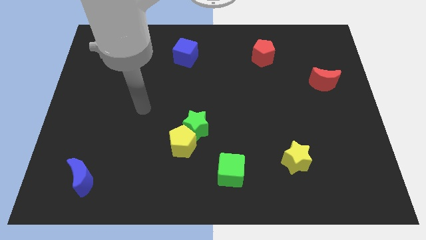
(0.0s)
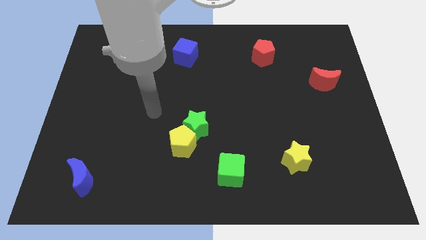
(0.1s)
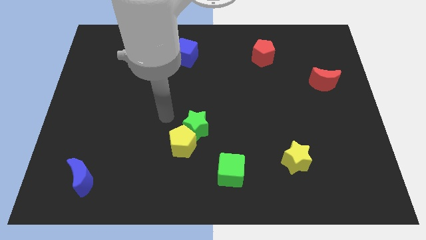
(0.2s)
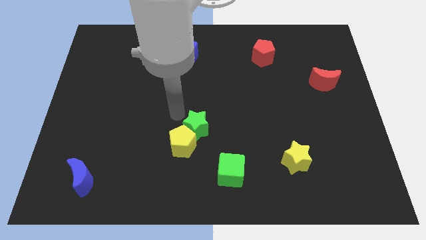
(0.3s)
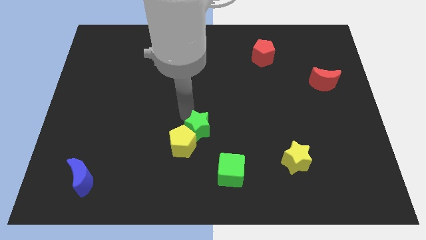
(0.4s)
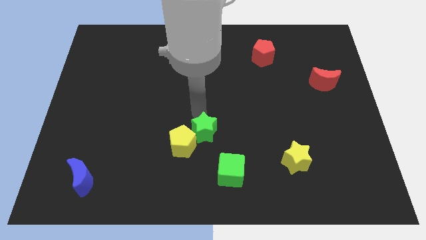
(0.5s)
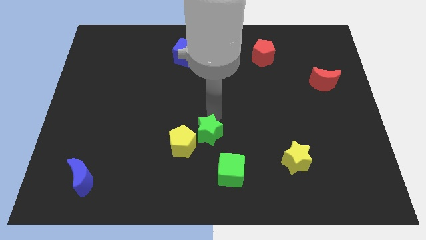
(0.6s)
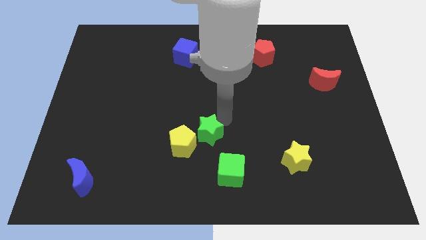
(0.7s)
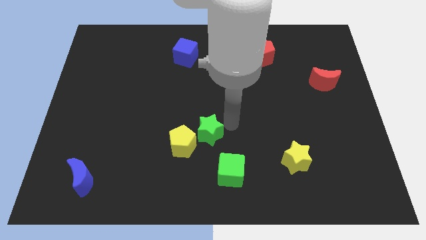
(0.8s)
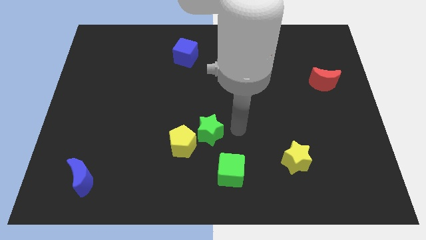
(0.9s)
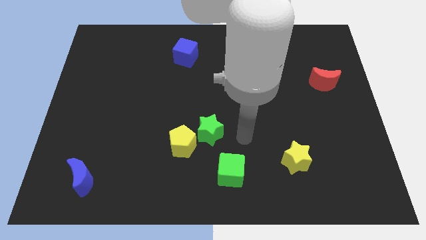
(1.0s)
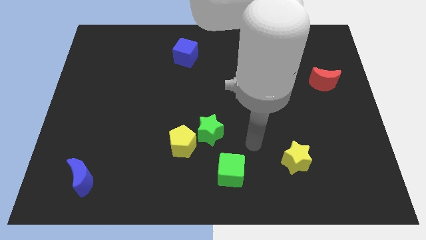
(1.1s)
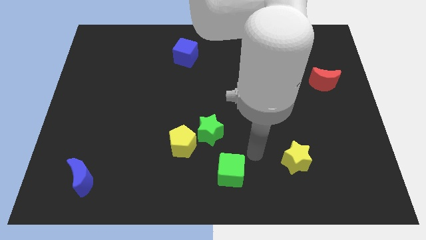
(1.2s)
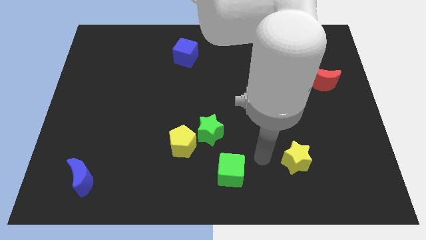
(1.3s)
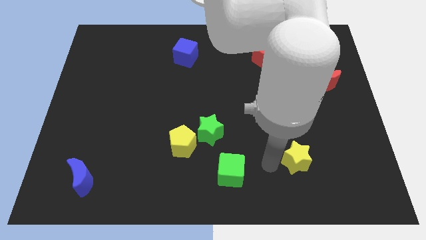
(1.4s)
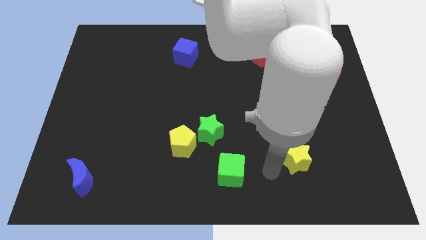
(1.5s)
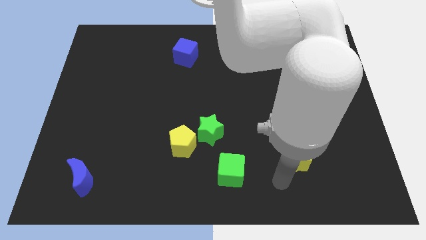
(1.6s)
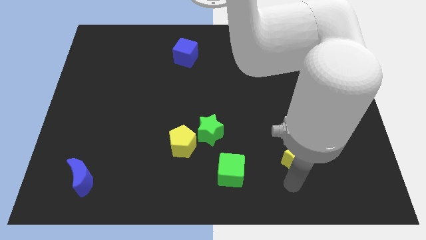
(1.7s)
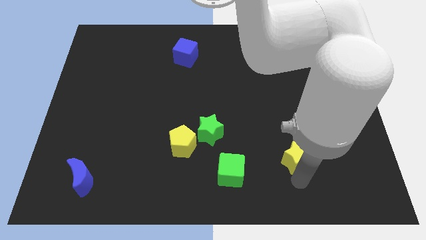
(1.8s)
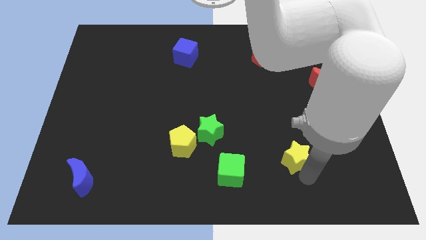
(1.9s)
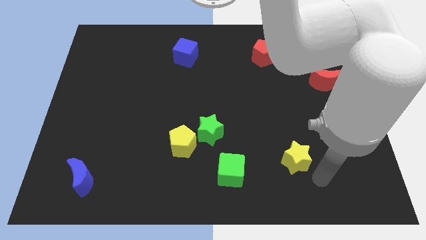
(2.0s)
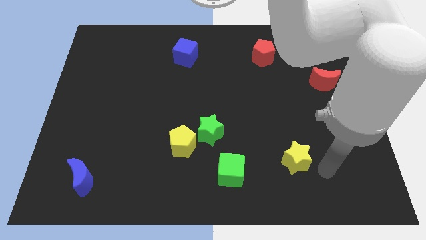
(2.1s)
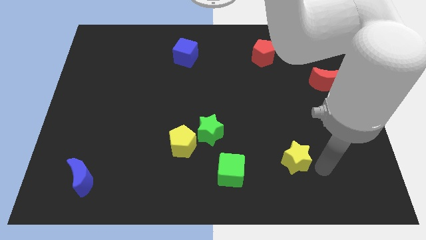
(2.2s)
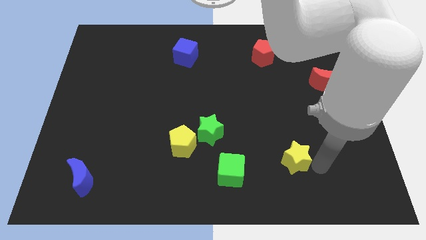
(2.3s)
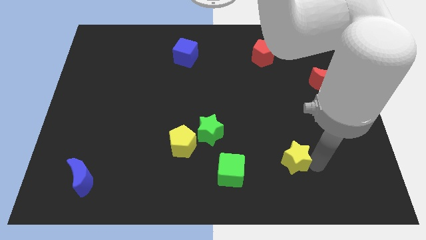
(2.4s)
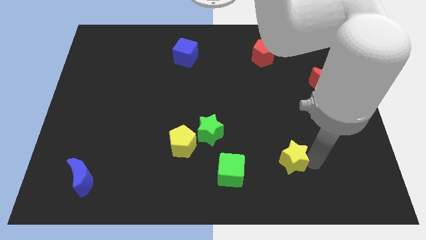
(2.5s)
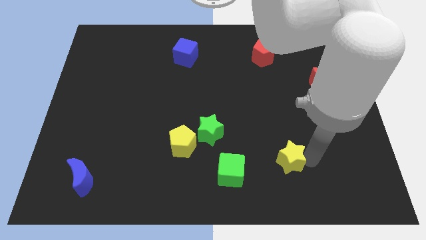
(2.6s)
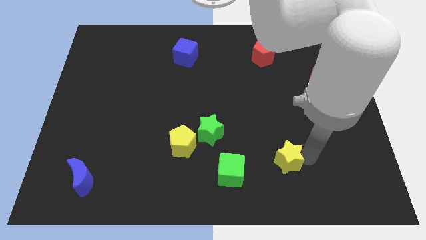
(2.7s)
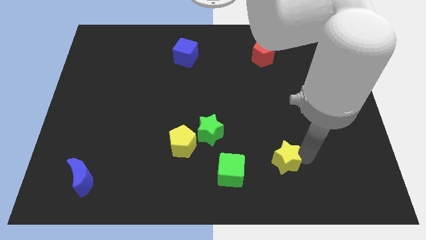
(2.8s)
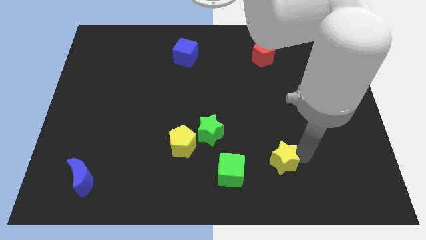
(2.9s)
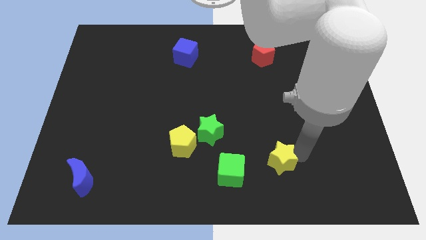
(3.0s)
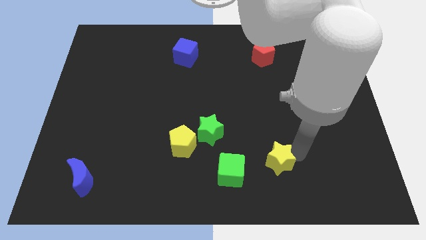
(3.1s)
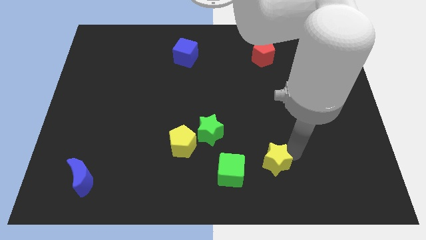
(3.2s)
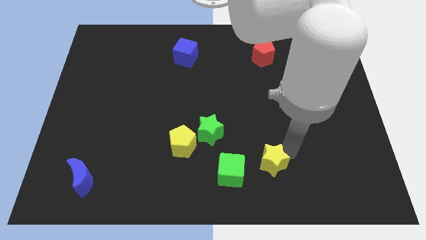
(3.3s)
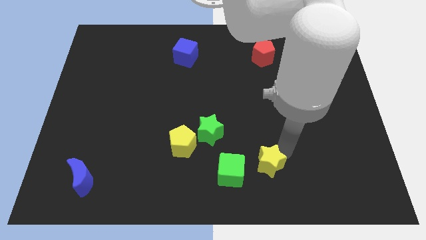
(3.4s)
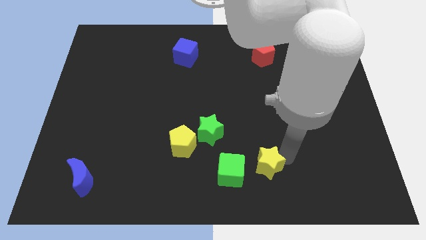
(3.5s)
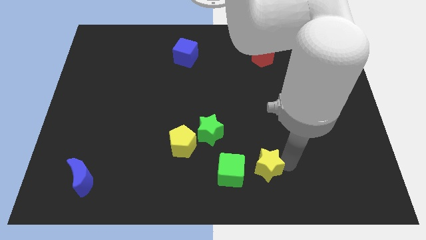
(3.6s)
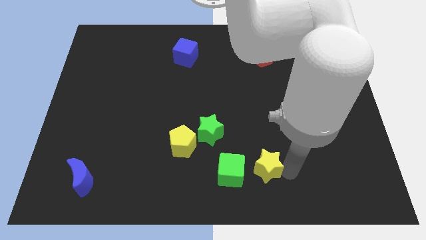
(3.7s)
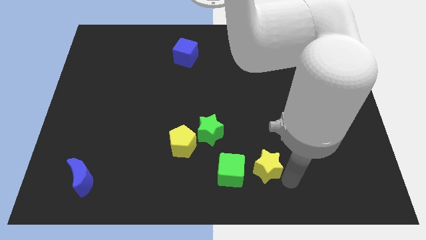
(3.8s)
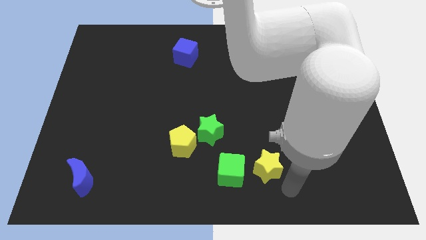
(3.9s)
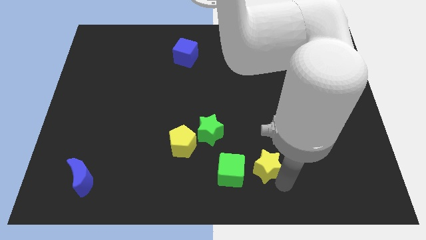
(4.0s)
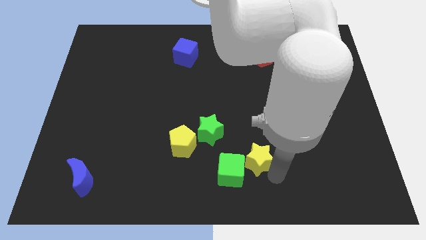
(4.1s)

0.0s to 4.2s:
push the yellow star to the left a little bit

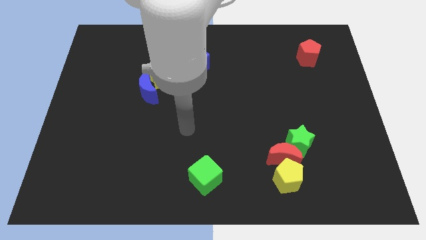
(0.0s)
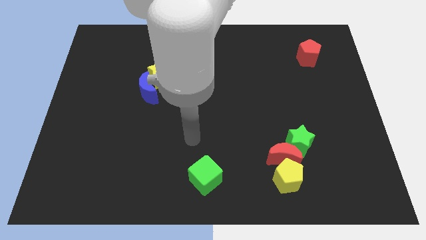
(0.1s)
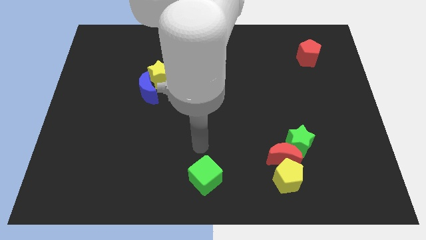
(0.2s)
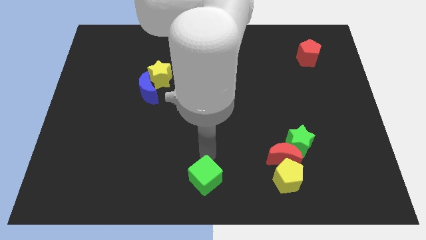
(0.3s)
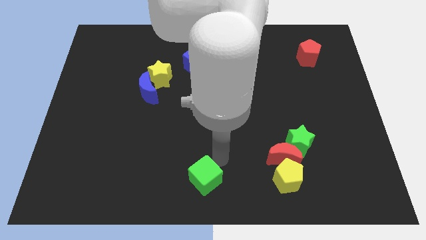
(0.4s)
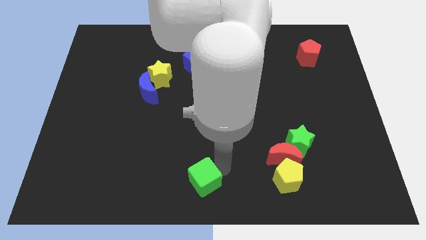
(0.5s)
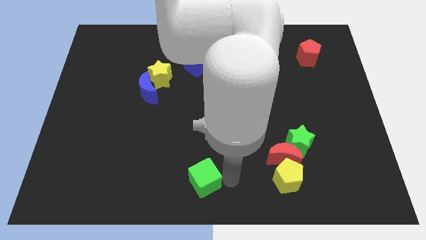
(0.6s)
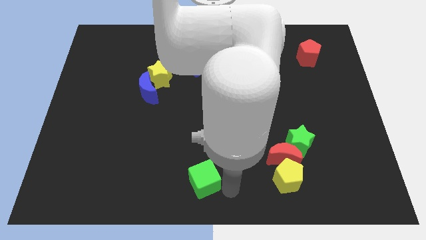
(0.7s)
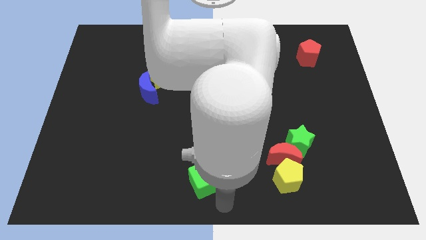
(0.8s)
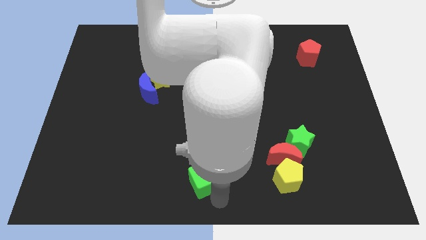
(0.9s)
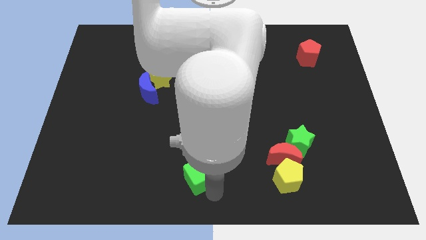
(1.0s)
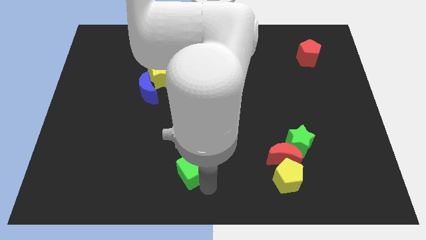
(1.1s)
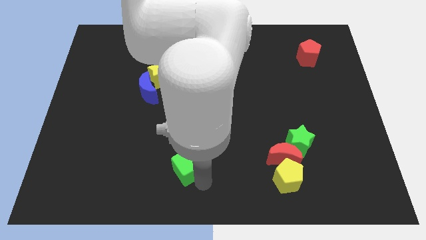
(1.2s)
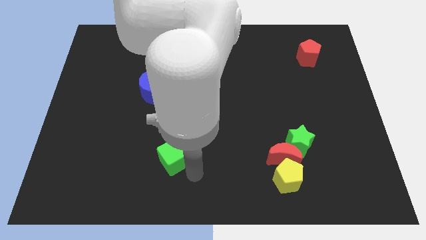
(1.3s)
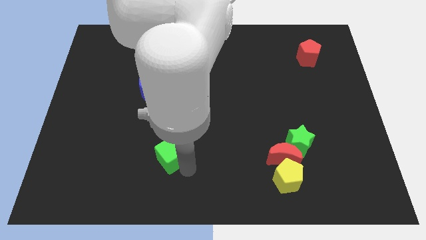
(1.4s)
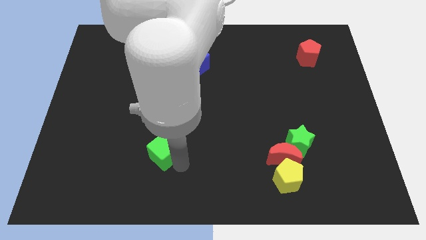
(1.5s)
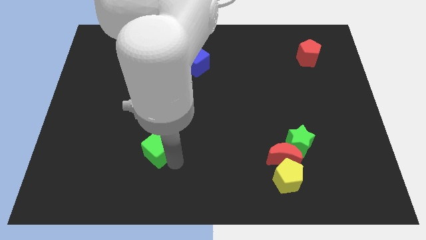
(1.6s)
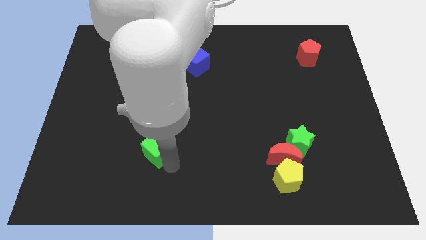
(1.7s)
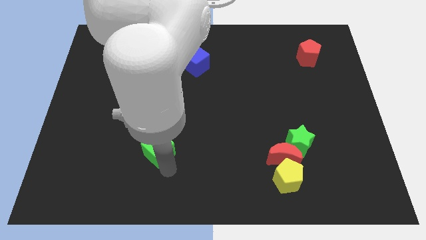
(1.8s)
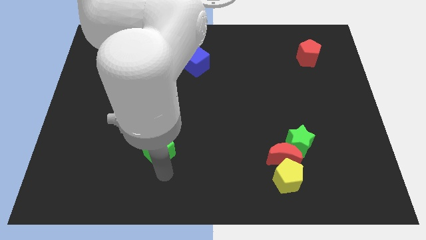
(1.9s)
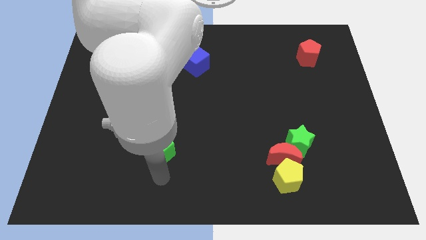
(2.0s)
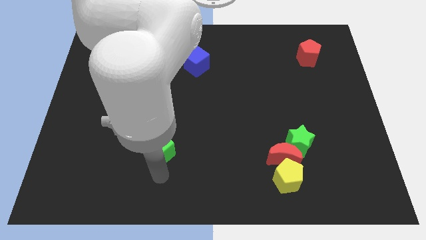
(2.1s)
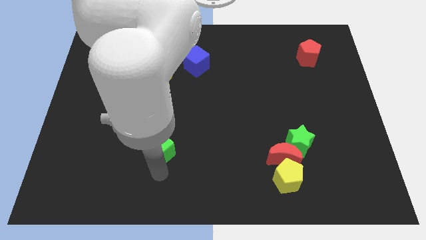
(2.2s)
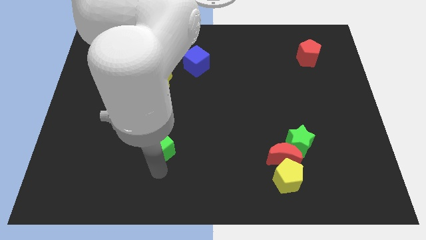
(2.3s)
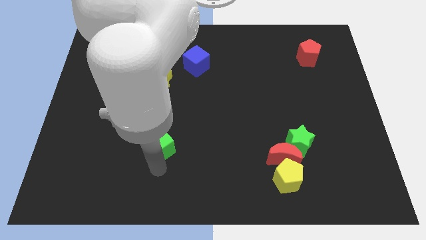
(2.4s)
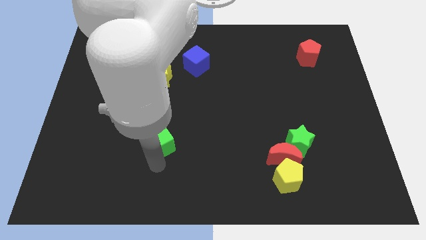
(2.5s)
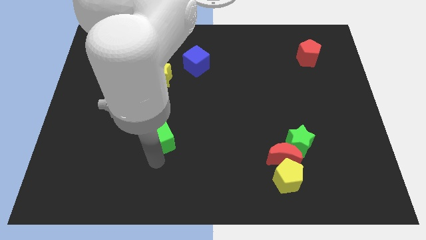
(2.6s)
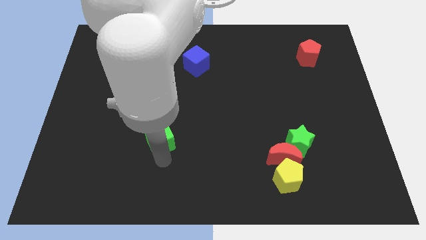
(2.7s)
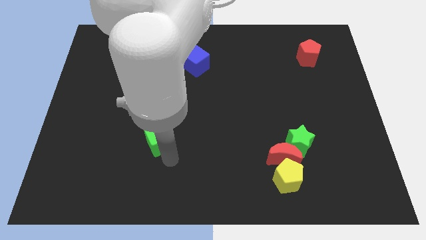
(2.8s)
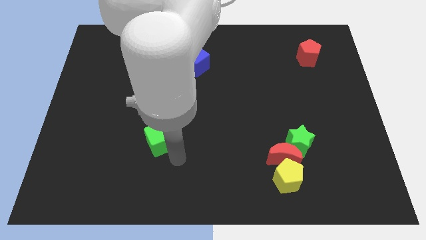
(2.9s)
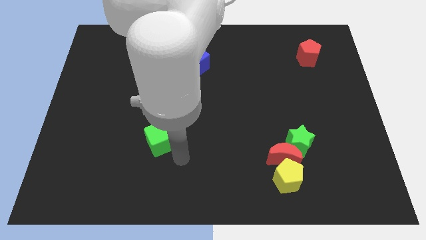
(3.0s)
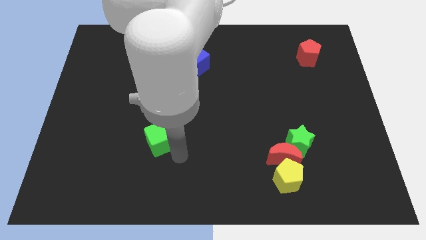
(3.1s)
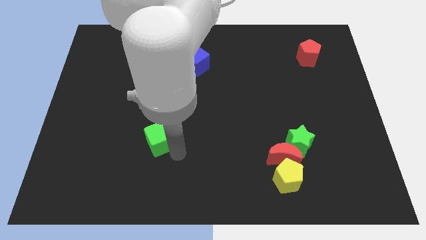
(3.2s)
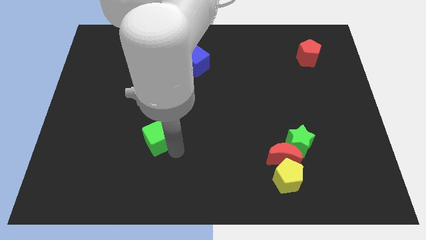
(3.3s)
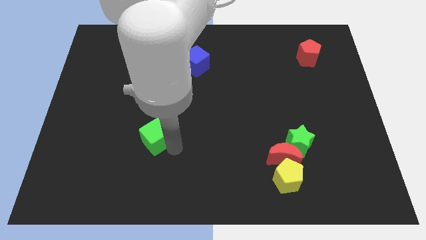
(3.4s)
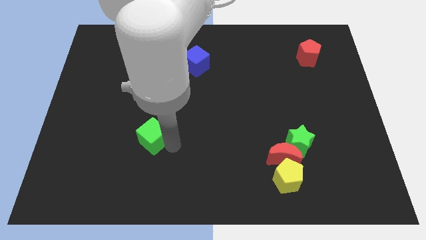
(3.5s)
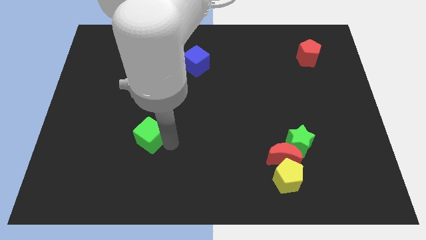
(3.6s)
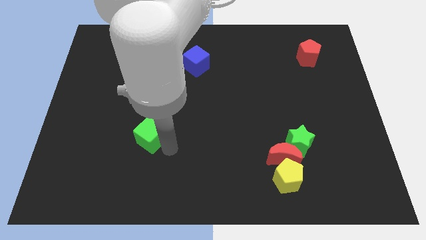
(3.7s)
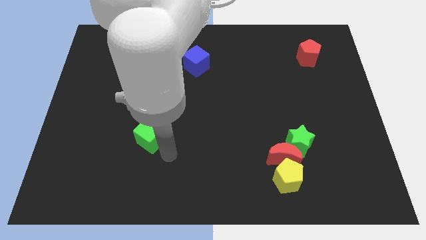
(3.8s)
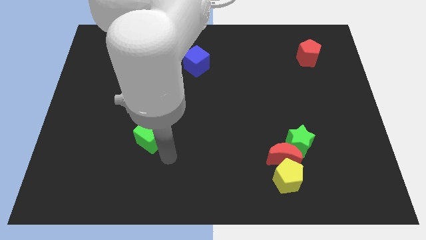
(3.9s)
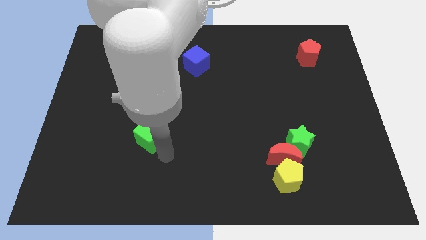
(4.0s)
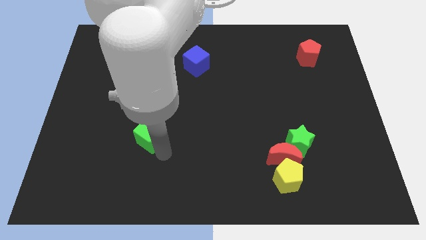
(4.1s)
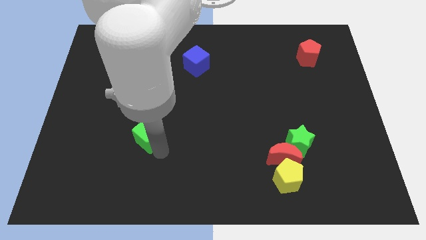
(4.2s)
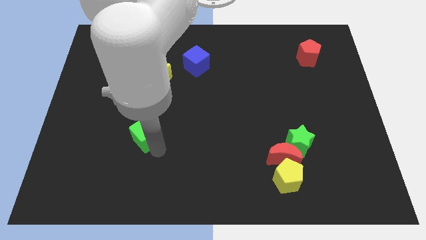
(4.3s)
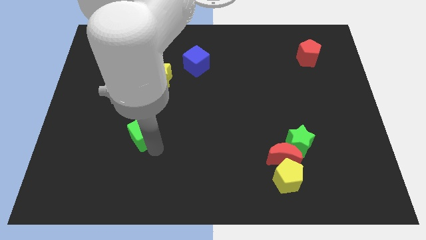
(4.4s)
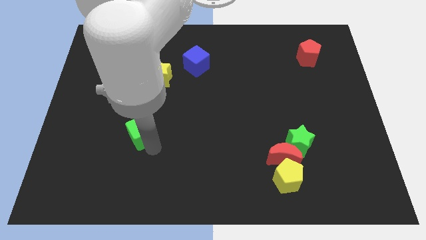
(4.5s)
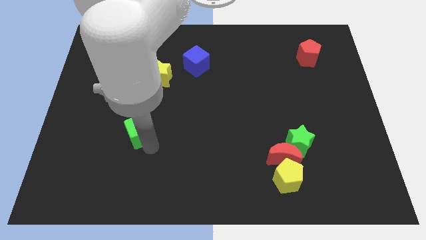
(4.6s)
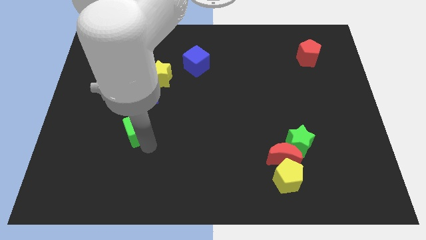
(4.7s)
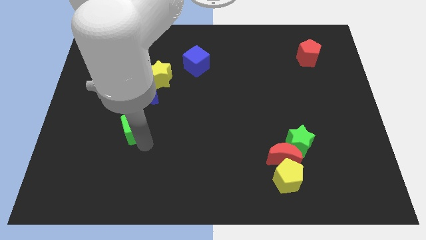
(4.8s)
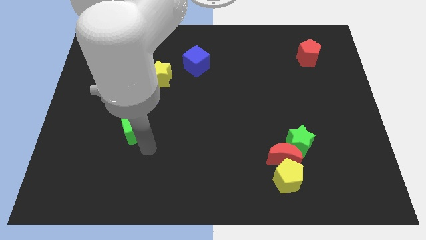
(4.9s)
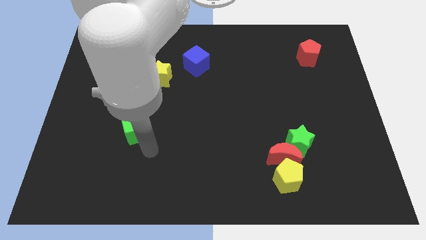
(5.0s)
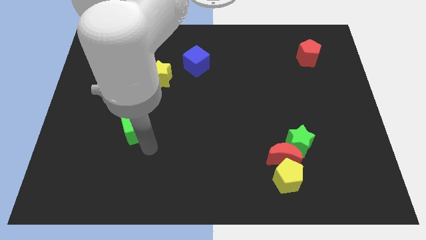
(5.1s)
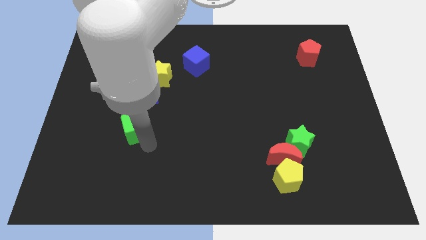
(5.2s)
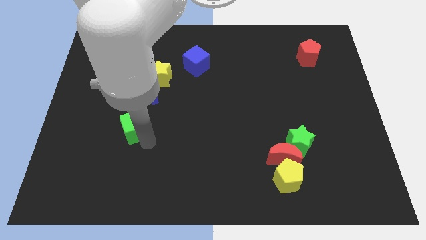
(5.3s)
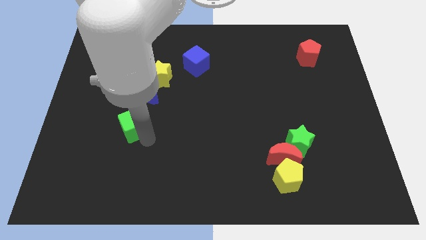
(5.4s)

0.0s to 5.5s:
push the green cube diagonally up and to the left
